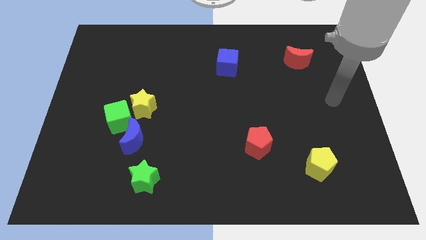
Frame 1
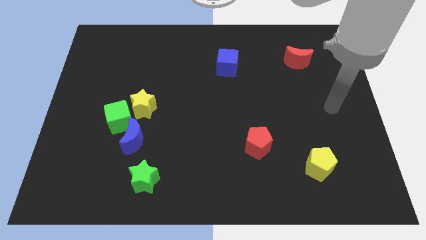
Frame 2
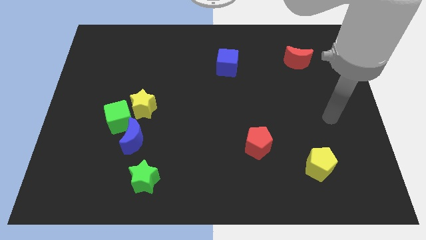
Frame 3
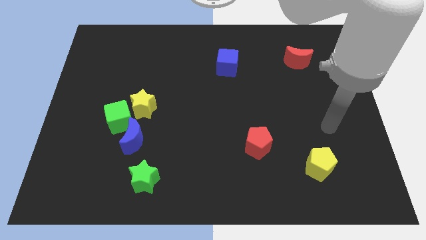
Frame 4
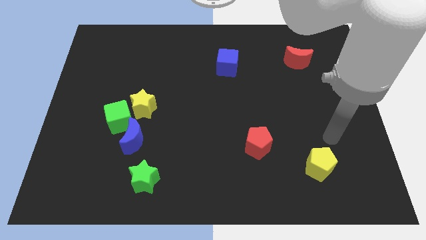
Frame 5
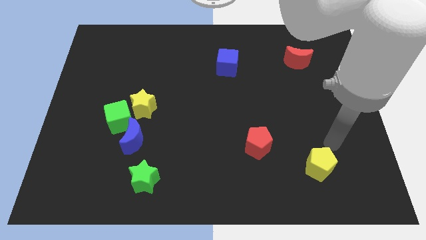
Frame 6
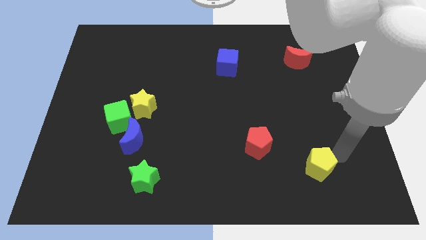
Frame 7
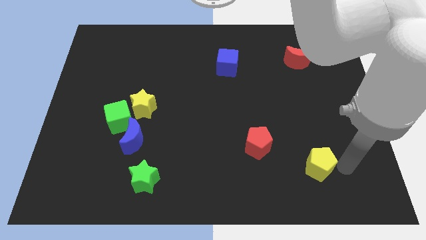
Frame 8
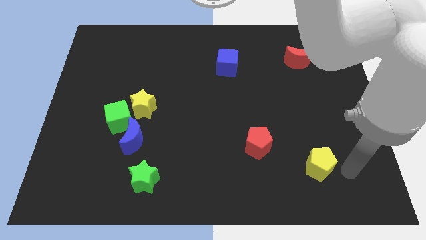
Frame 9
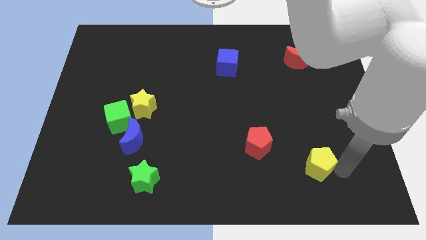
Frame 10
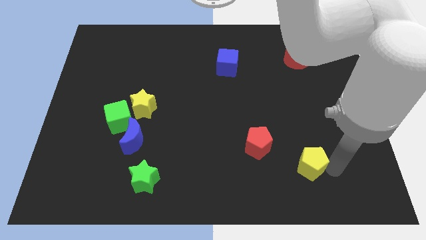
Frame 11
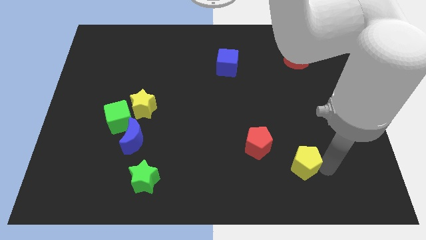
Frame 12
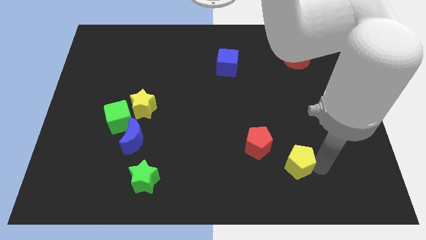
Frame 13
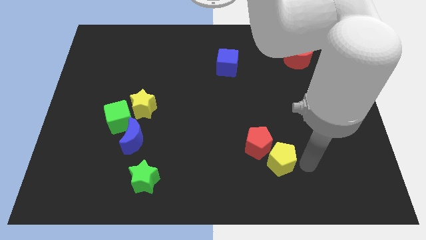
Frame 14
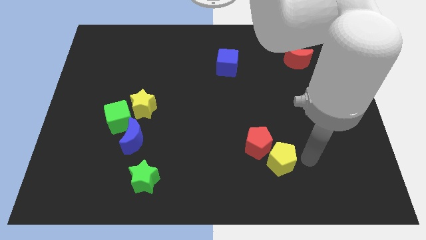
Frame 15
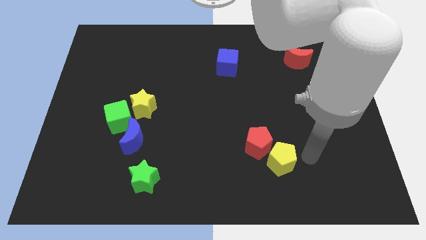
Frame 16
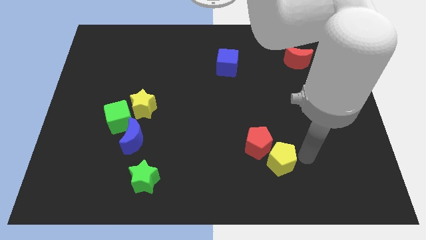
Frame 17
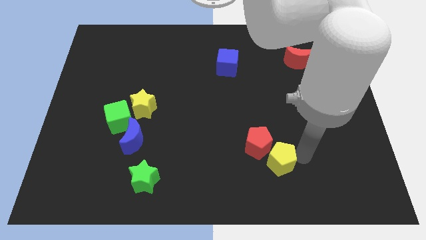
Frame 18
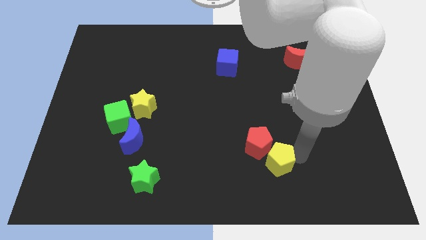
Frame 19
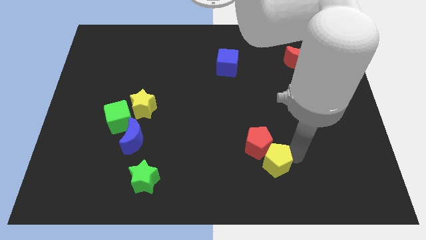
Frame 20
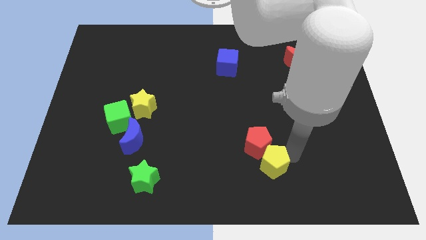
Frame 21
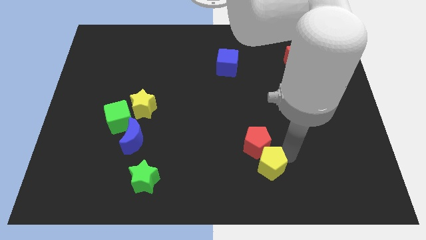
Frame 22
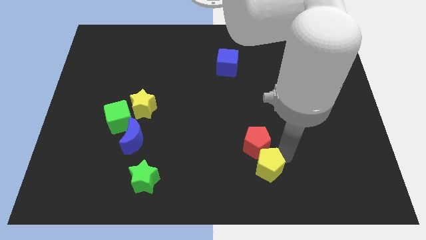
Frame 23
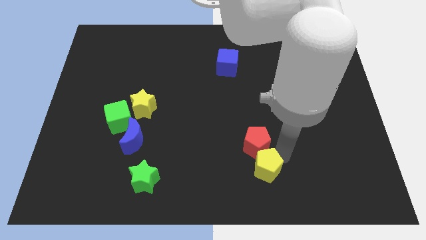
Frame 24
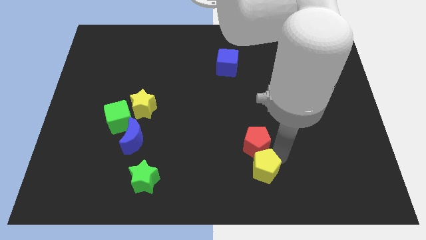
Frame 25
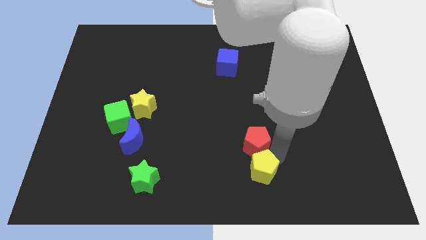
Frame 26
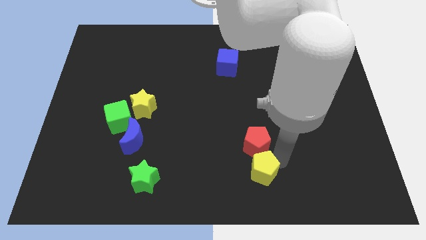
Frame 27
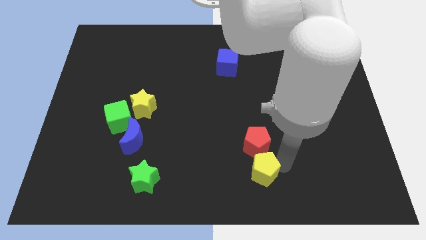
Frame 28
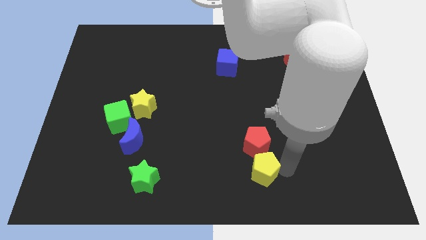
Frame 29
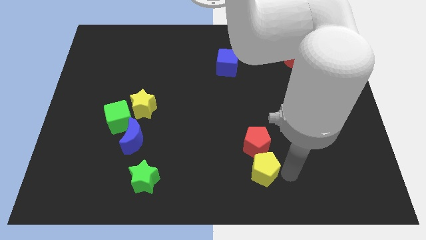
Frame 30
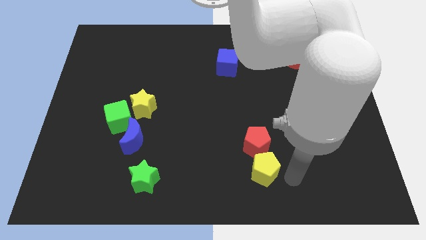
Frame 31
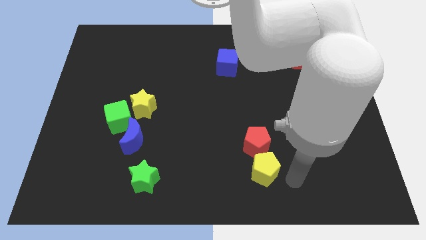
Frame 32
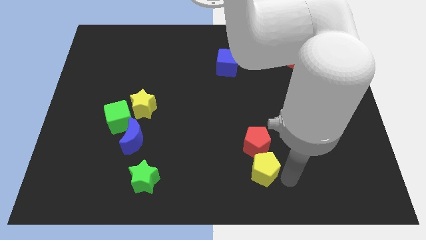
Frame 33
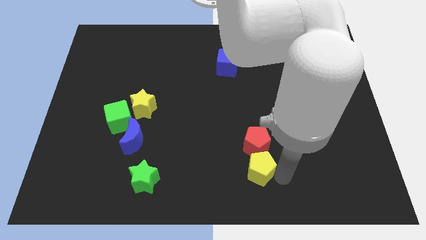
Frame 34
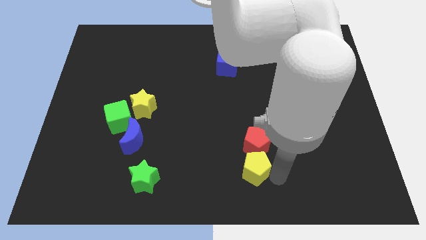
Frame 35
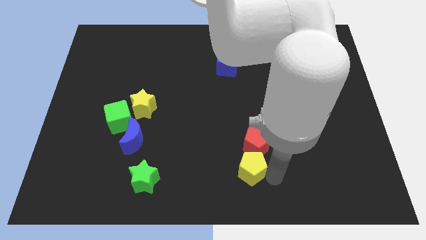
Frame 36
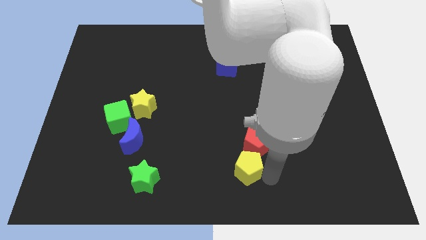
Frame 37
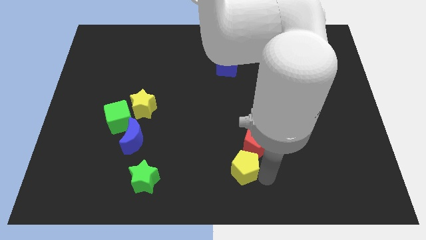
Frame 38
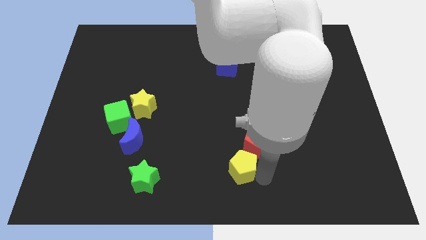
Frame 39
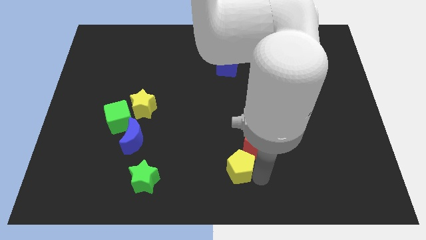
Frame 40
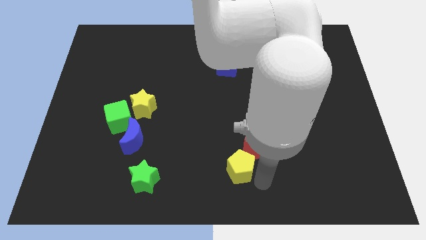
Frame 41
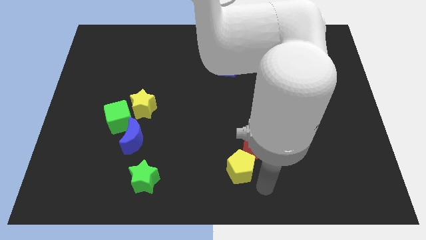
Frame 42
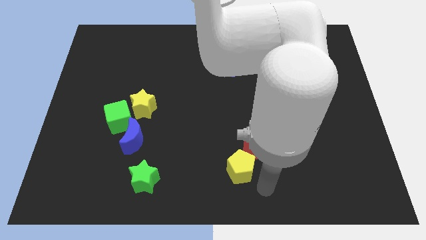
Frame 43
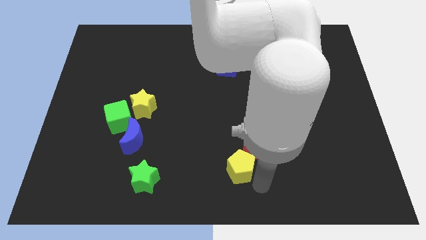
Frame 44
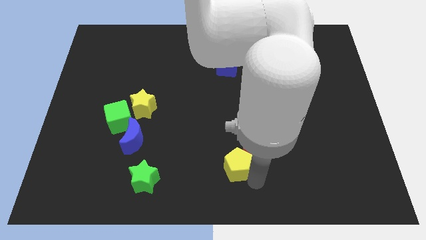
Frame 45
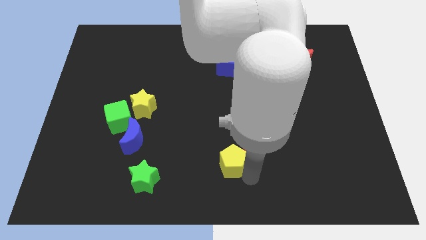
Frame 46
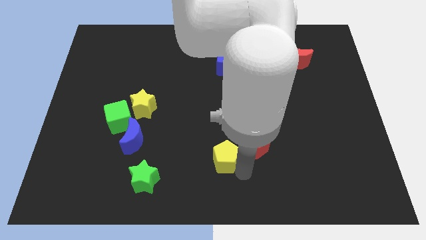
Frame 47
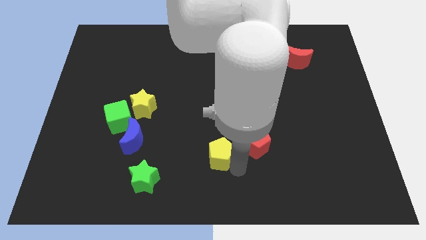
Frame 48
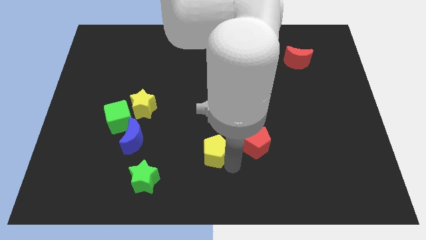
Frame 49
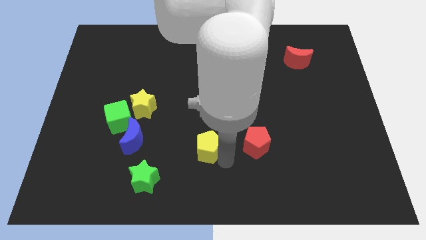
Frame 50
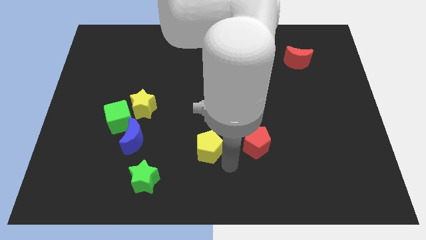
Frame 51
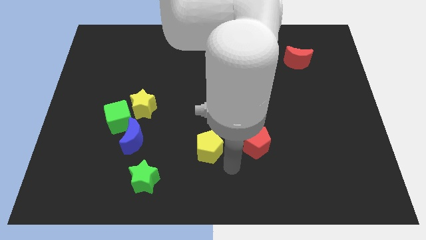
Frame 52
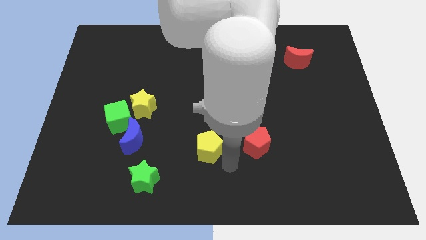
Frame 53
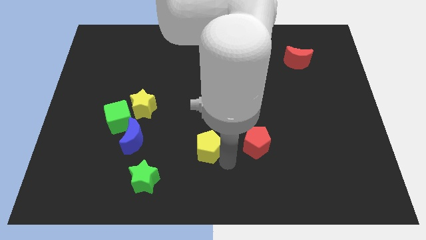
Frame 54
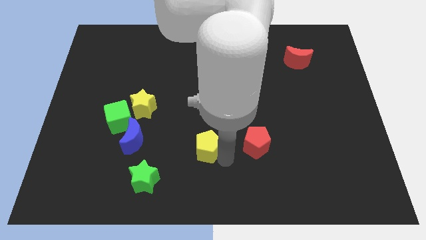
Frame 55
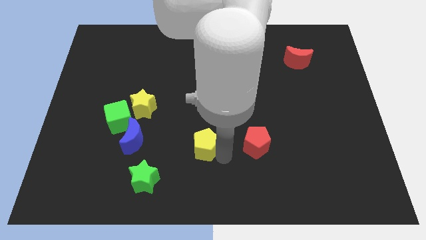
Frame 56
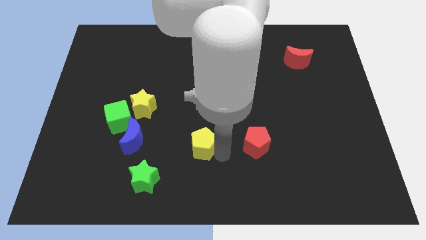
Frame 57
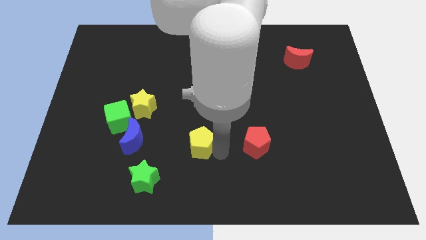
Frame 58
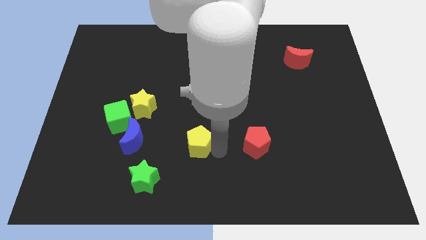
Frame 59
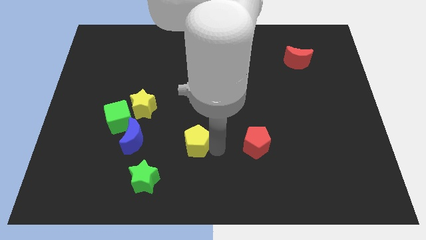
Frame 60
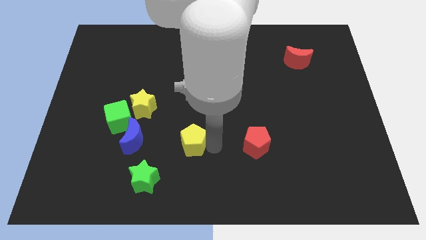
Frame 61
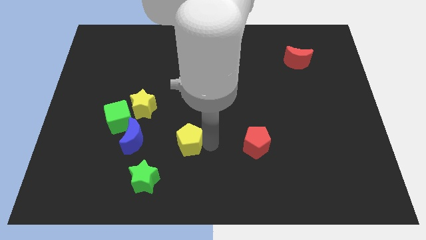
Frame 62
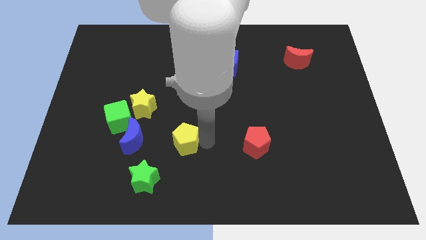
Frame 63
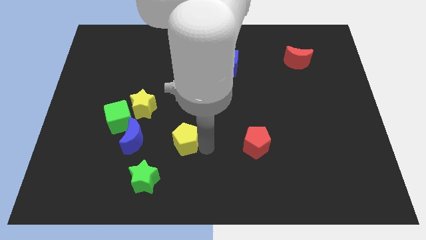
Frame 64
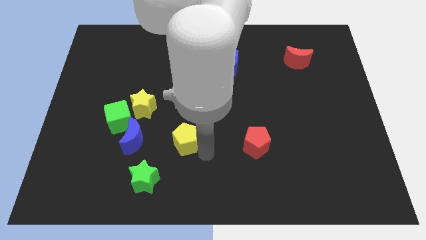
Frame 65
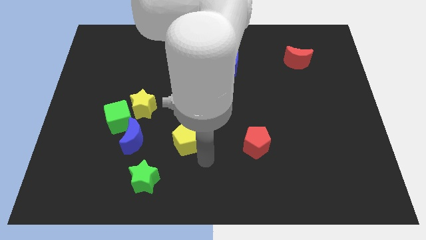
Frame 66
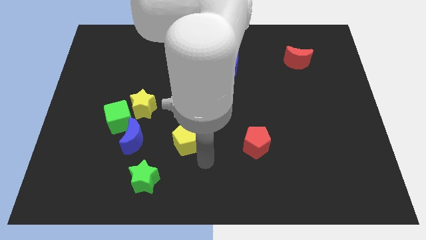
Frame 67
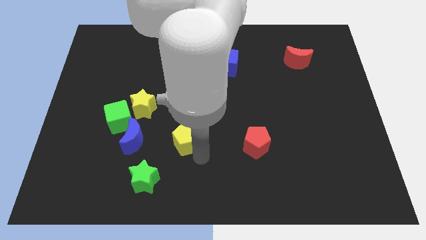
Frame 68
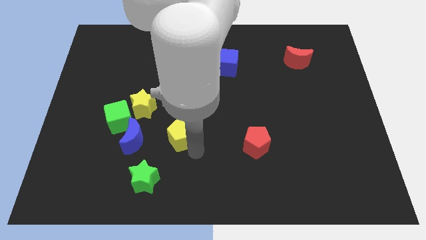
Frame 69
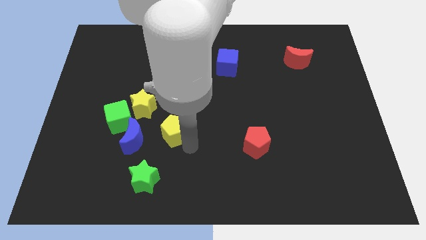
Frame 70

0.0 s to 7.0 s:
push the yellow pentagon just right of the green cube
